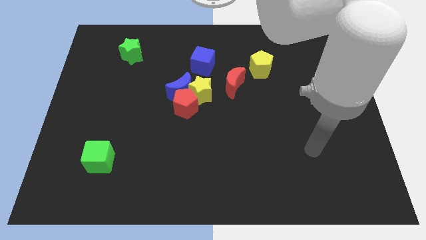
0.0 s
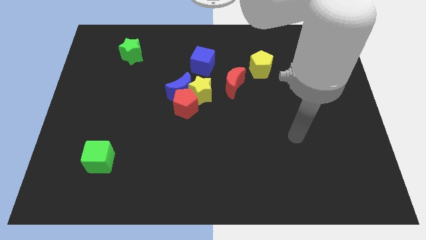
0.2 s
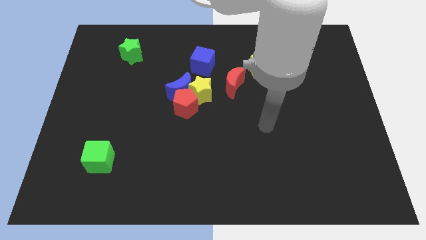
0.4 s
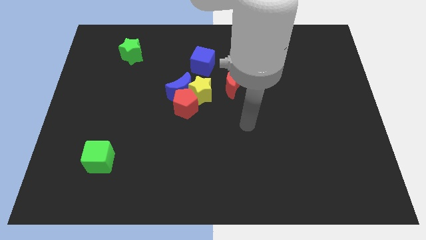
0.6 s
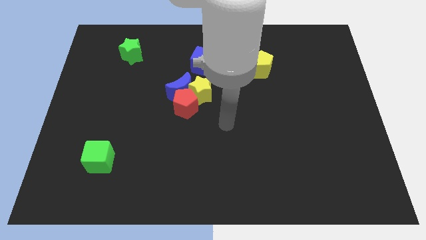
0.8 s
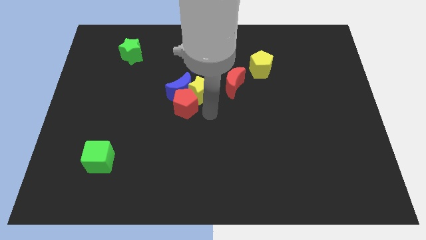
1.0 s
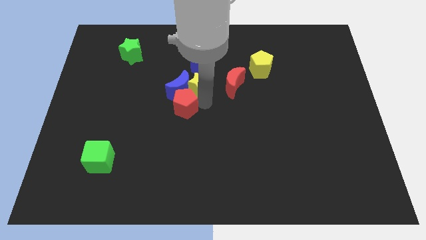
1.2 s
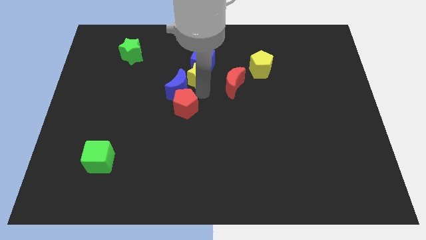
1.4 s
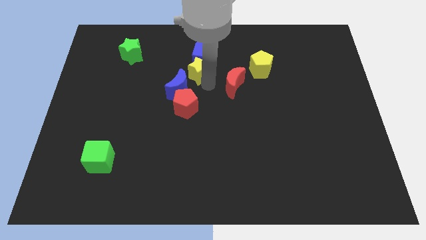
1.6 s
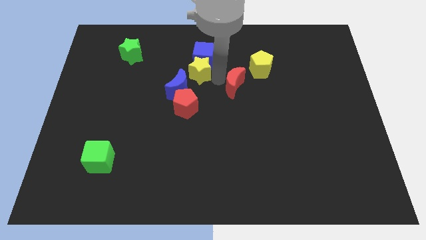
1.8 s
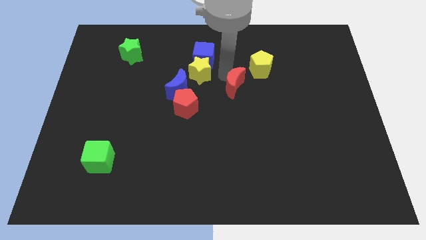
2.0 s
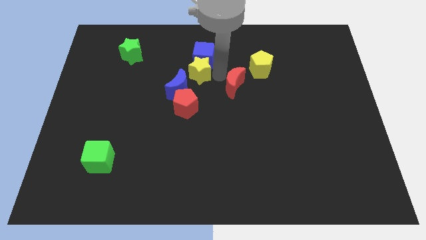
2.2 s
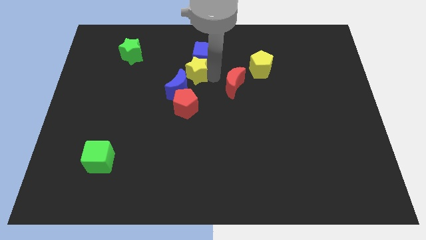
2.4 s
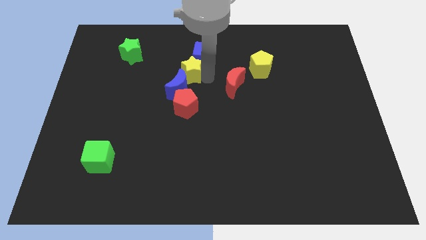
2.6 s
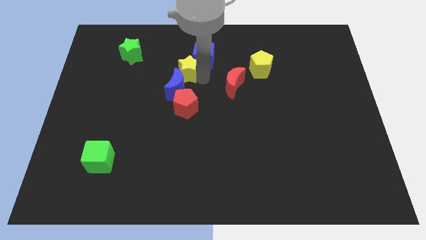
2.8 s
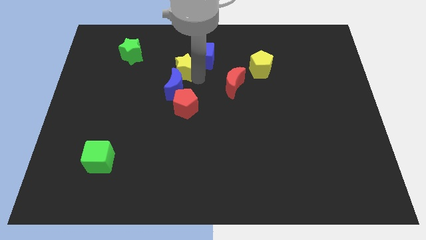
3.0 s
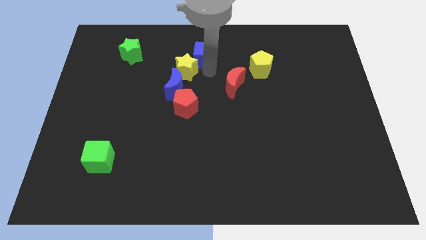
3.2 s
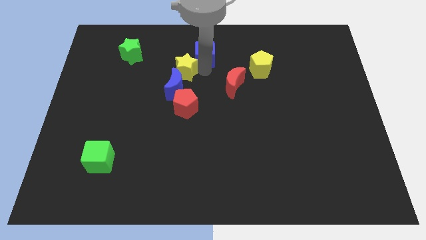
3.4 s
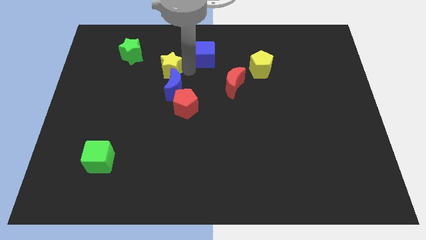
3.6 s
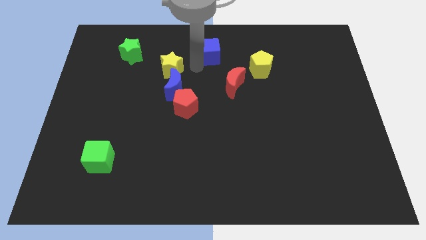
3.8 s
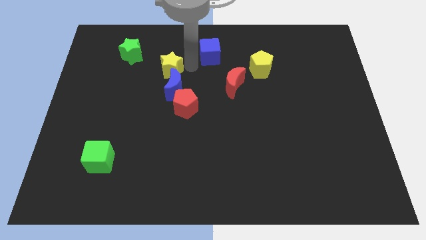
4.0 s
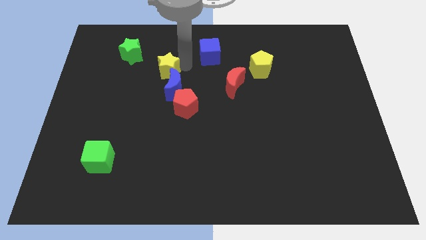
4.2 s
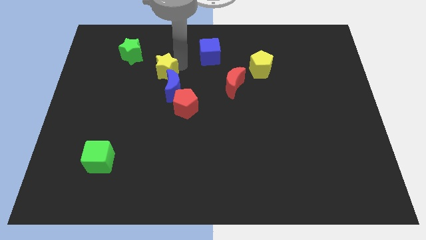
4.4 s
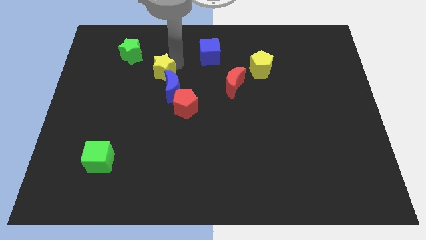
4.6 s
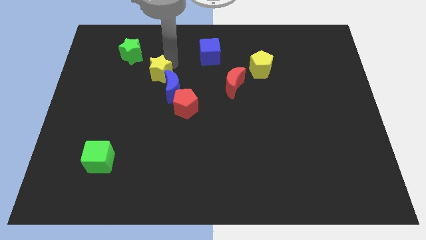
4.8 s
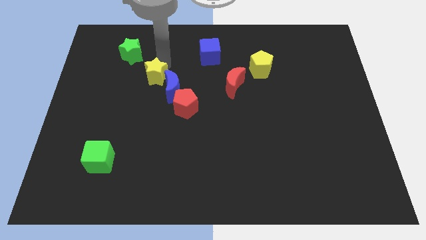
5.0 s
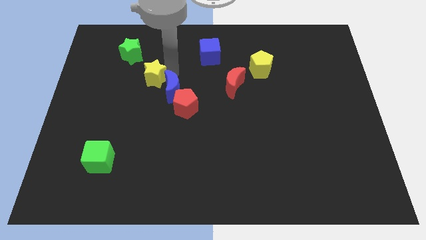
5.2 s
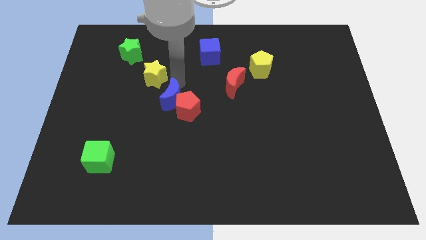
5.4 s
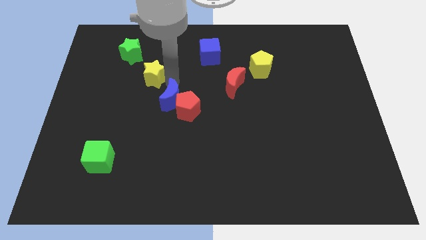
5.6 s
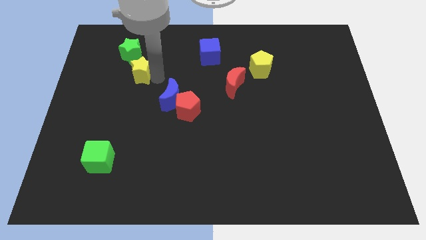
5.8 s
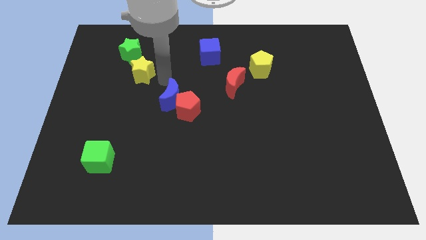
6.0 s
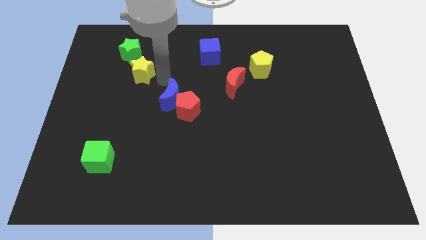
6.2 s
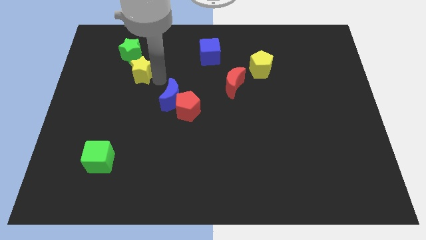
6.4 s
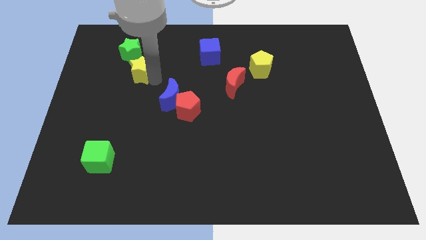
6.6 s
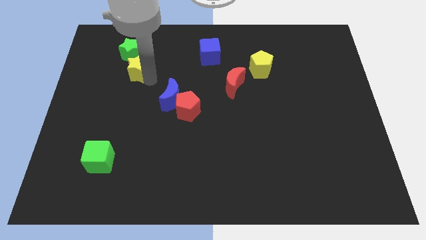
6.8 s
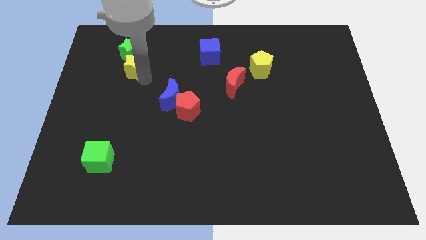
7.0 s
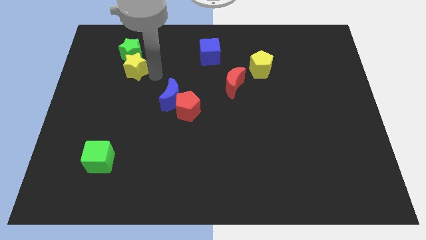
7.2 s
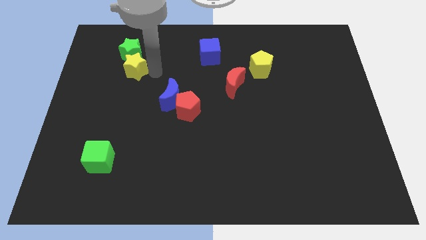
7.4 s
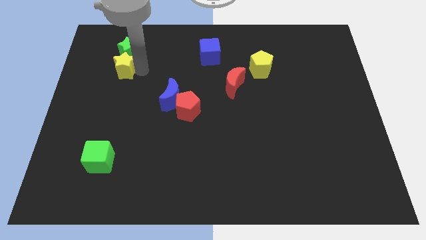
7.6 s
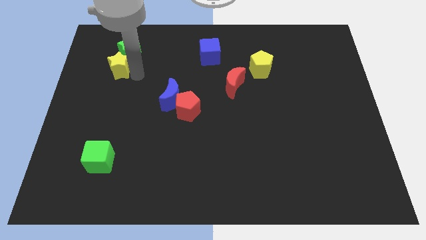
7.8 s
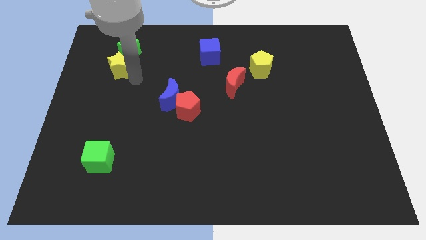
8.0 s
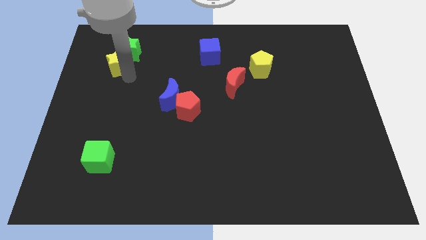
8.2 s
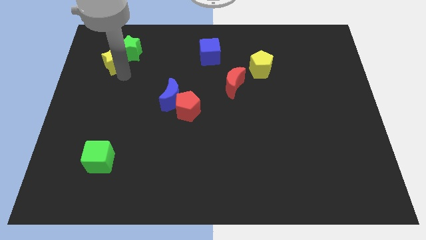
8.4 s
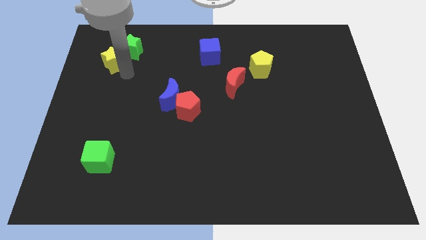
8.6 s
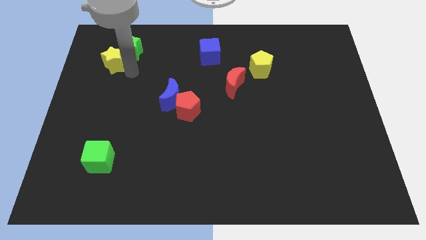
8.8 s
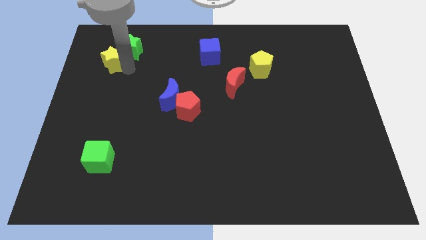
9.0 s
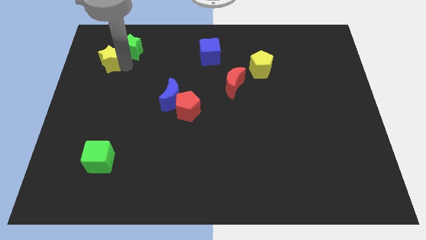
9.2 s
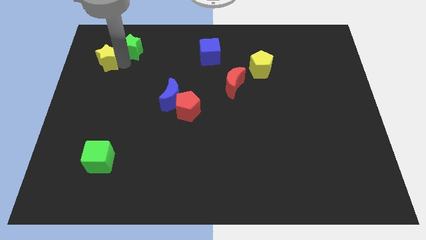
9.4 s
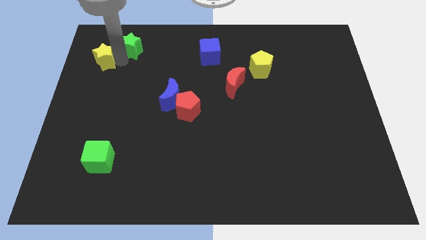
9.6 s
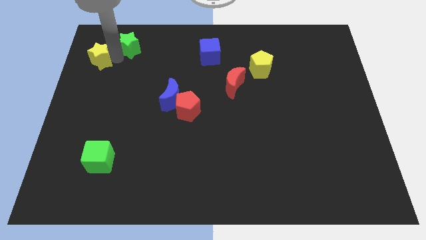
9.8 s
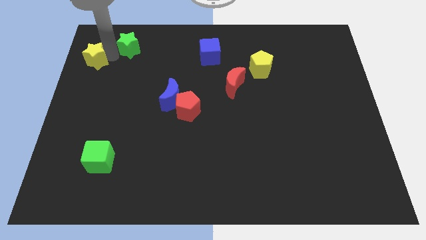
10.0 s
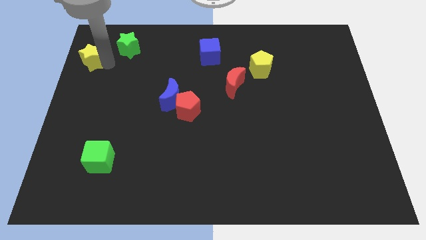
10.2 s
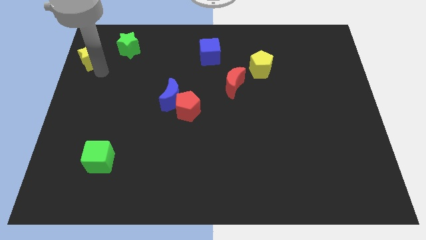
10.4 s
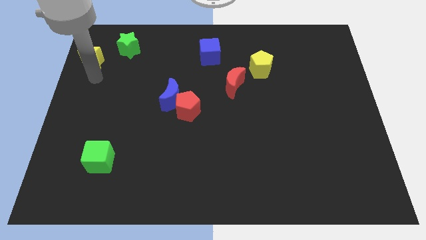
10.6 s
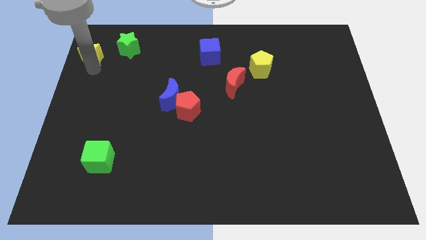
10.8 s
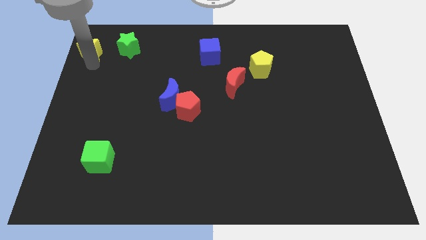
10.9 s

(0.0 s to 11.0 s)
move the yellow star to the top left of the board

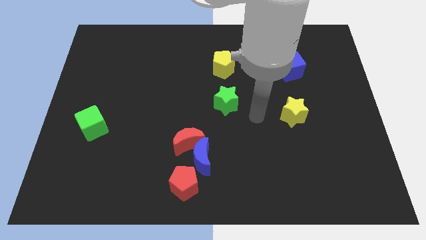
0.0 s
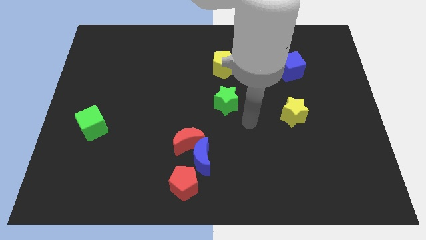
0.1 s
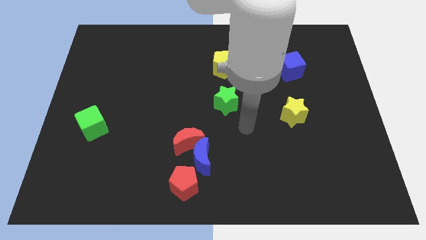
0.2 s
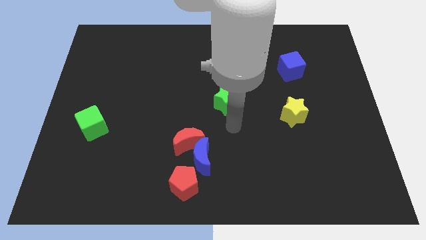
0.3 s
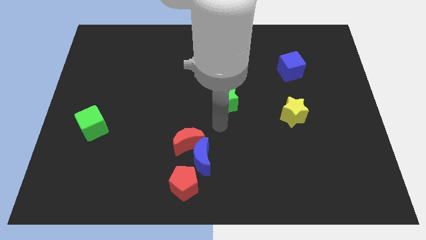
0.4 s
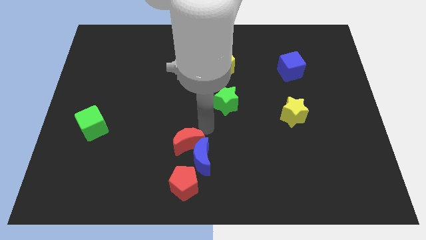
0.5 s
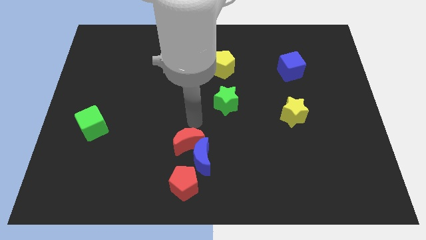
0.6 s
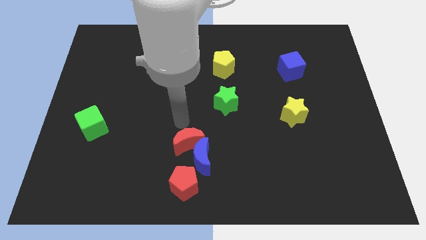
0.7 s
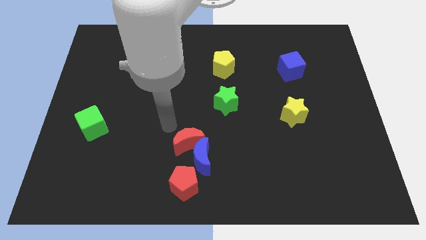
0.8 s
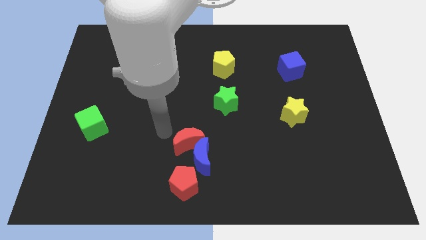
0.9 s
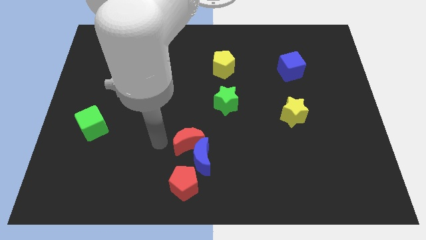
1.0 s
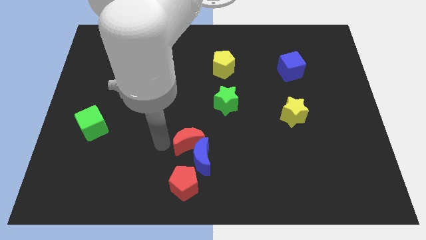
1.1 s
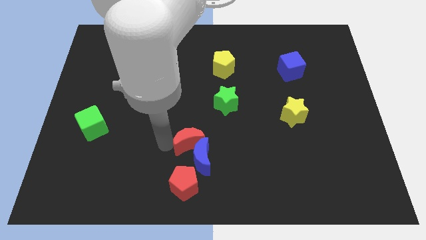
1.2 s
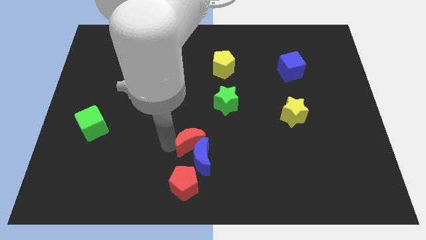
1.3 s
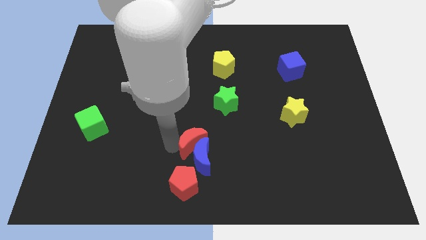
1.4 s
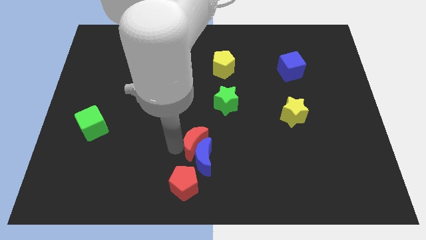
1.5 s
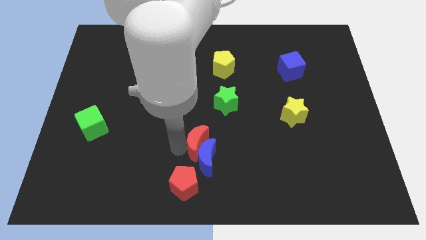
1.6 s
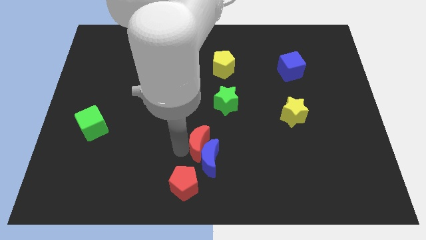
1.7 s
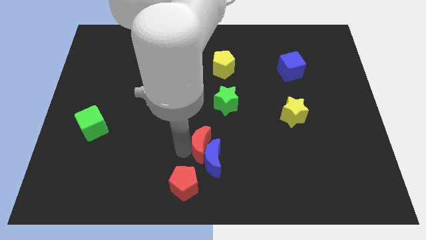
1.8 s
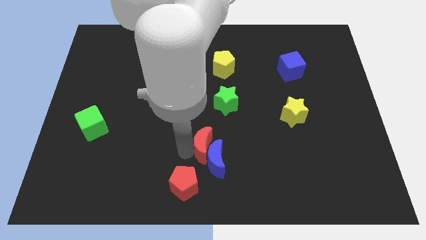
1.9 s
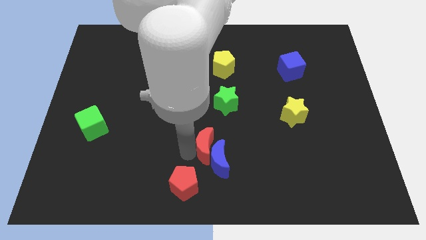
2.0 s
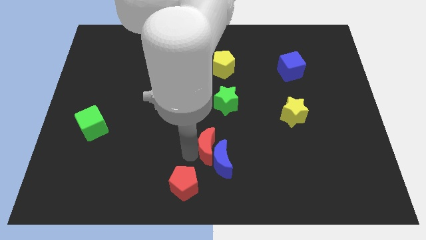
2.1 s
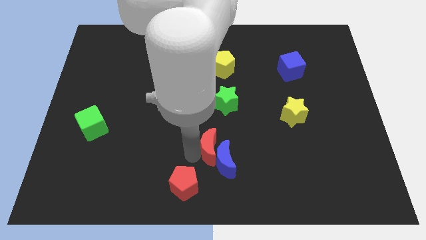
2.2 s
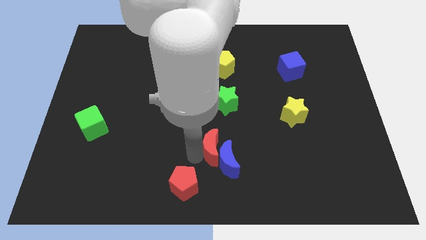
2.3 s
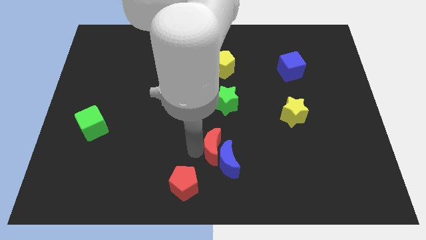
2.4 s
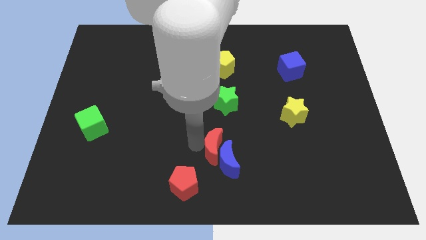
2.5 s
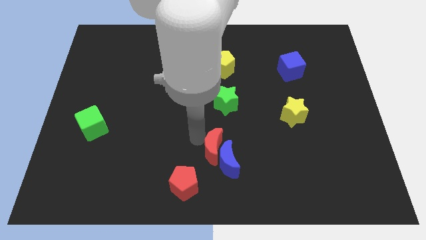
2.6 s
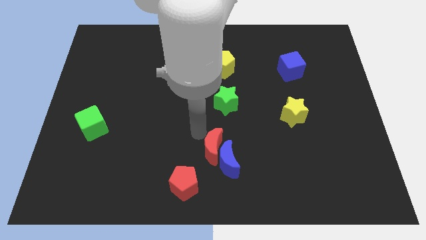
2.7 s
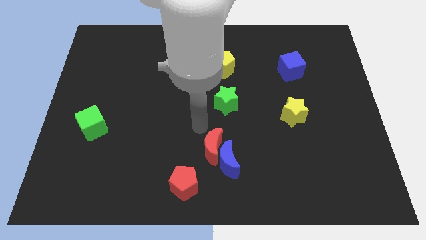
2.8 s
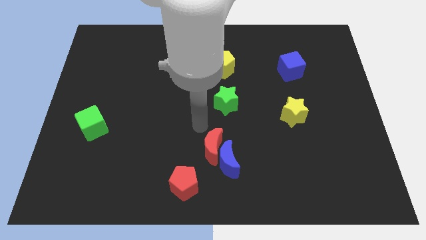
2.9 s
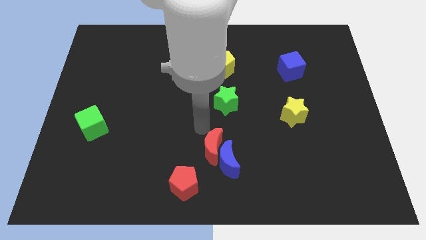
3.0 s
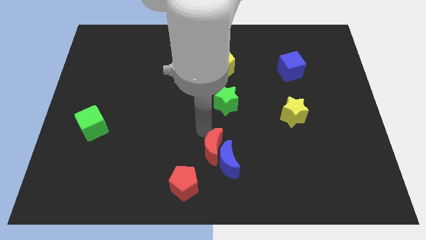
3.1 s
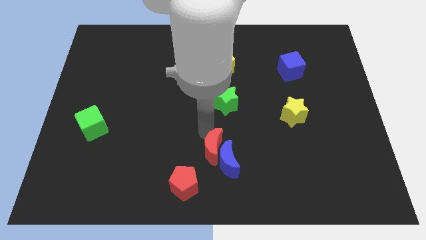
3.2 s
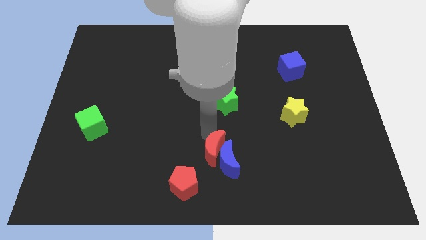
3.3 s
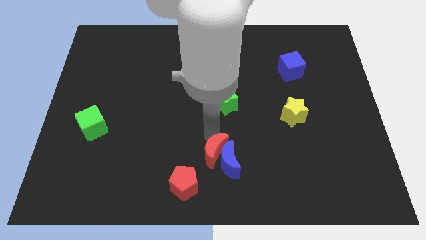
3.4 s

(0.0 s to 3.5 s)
slide the red moon to the bottom
